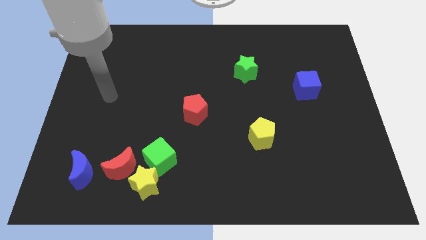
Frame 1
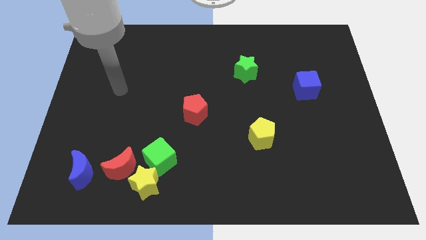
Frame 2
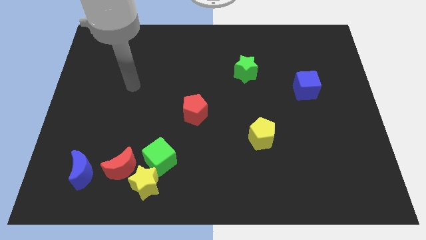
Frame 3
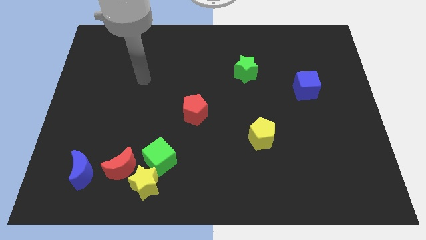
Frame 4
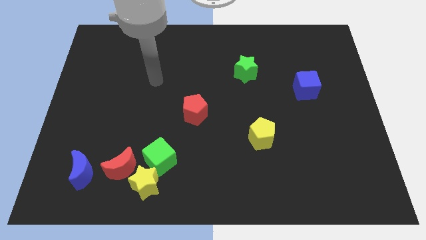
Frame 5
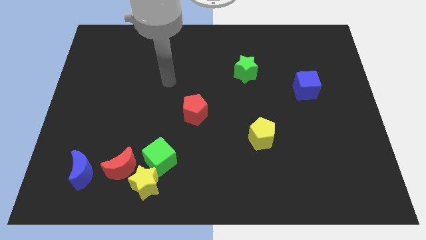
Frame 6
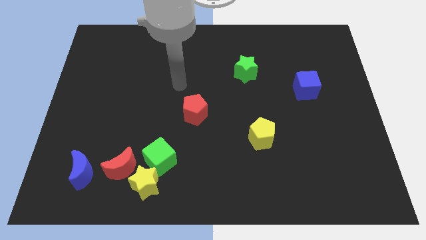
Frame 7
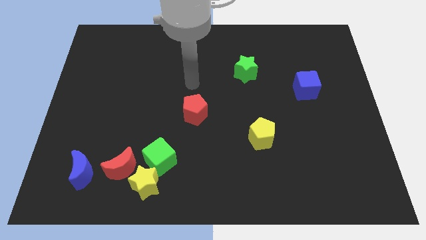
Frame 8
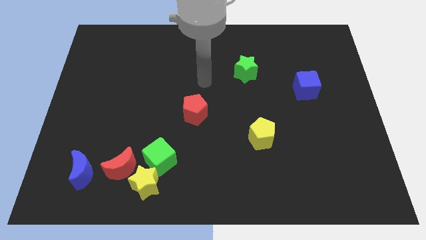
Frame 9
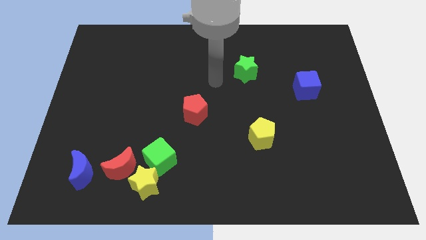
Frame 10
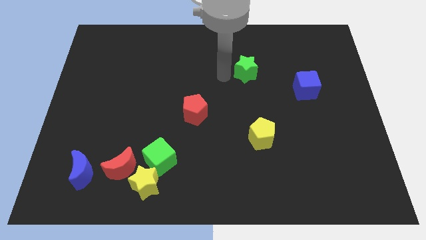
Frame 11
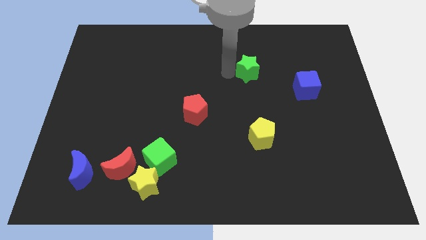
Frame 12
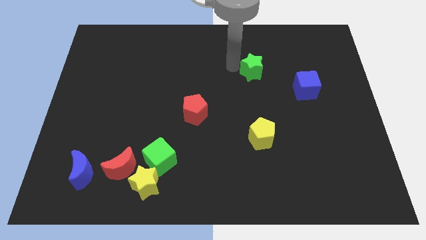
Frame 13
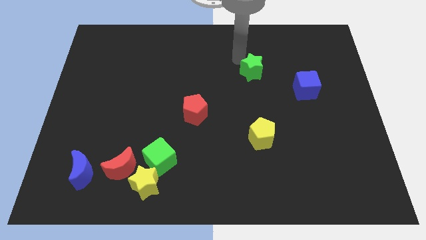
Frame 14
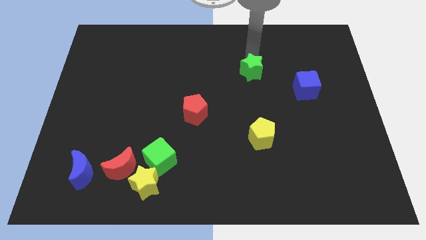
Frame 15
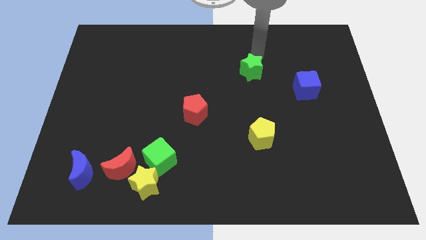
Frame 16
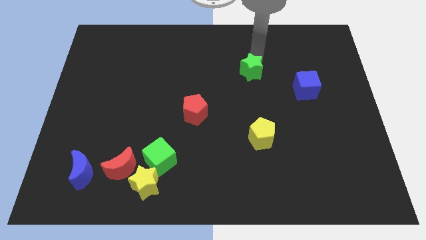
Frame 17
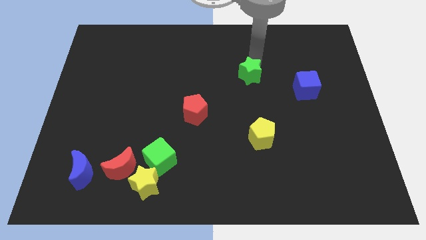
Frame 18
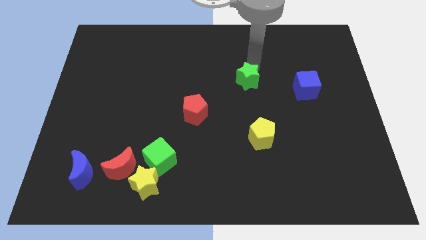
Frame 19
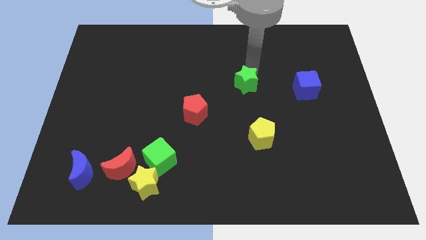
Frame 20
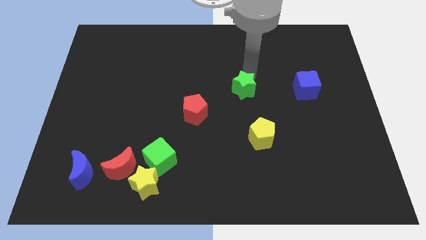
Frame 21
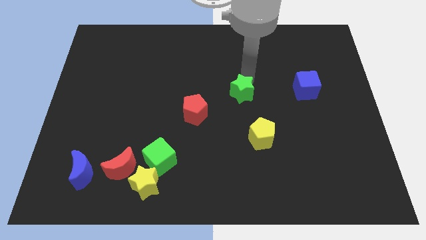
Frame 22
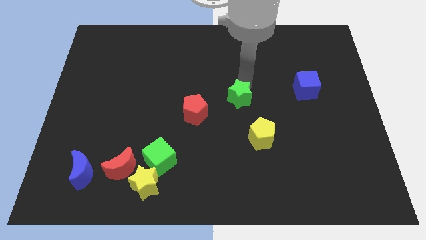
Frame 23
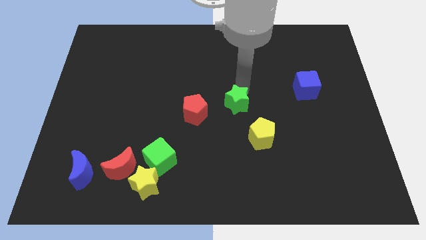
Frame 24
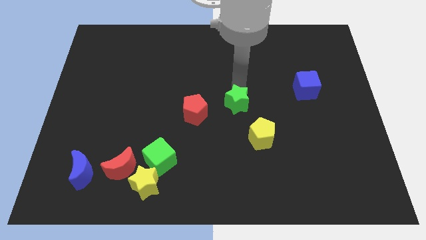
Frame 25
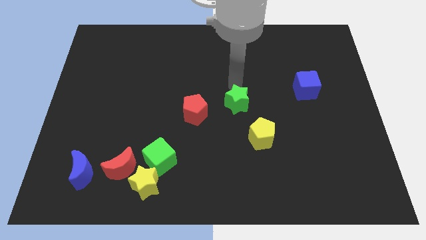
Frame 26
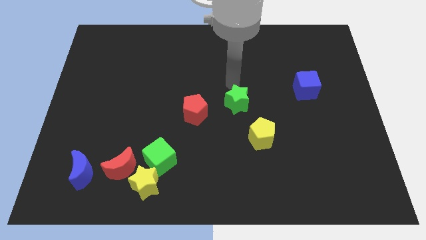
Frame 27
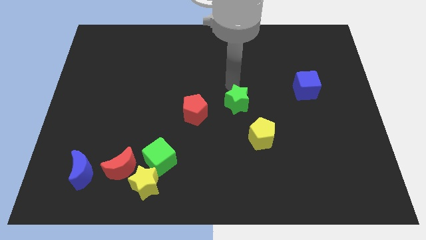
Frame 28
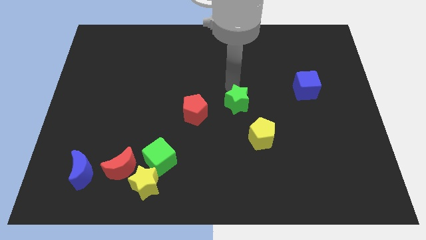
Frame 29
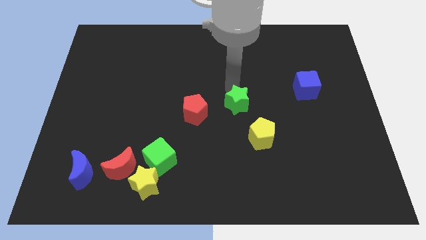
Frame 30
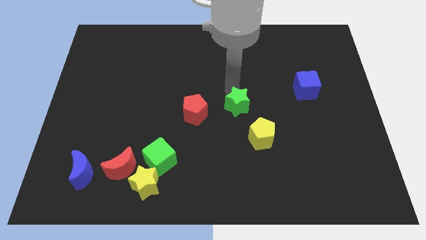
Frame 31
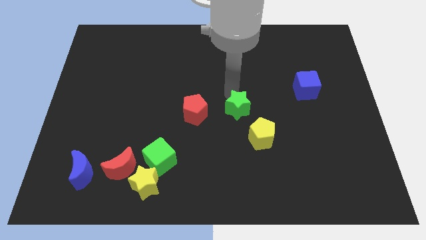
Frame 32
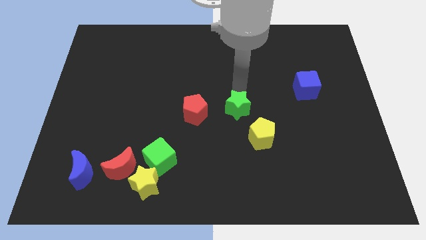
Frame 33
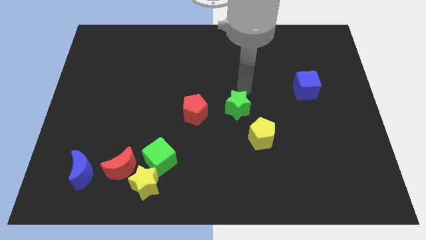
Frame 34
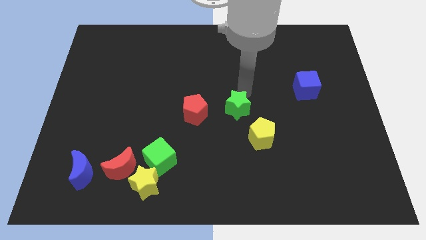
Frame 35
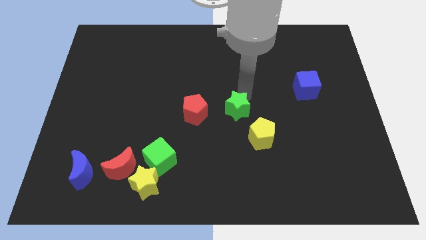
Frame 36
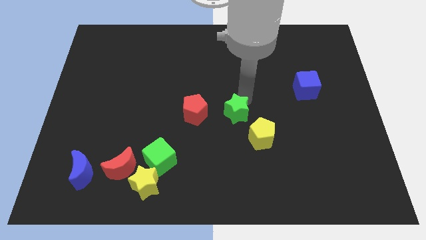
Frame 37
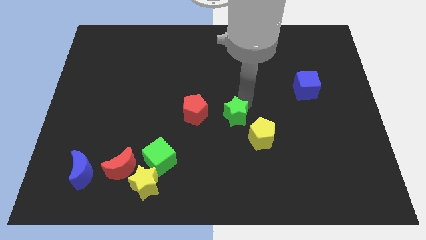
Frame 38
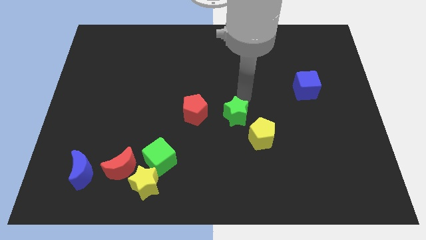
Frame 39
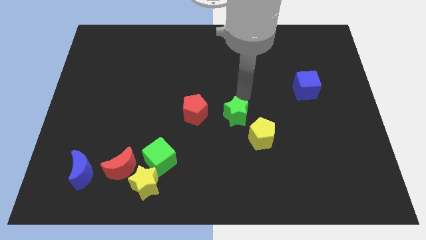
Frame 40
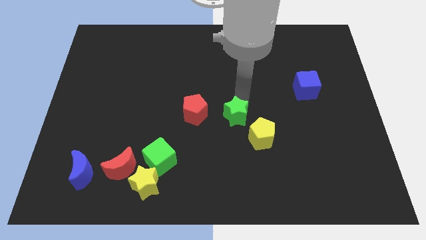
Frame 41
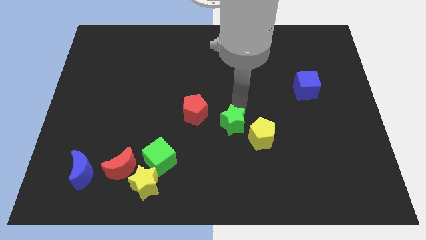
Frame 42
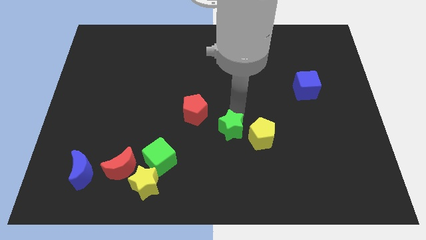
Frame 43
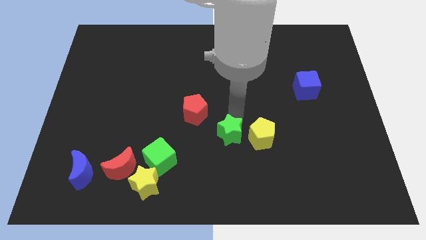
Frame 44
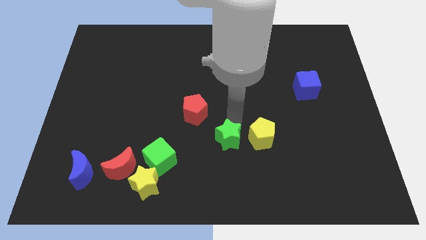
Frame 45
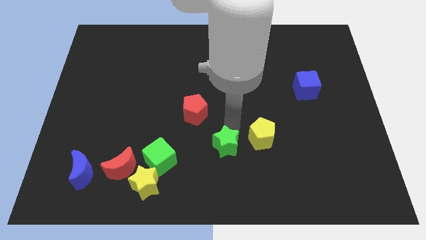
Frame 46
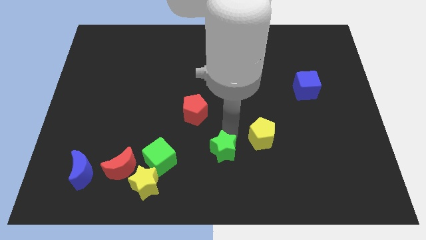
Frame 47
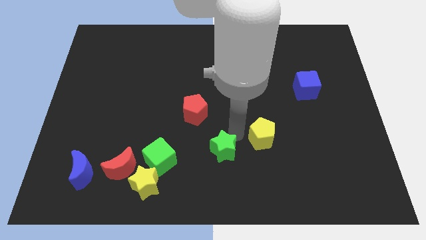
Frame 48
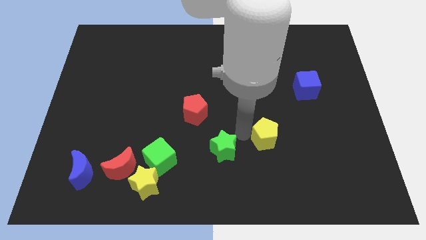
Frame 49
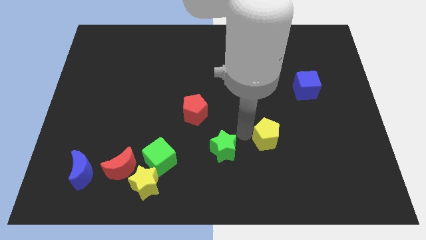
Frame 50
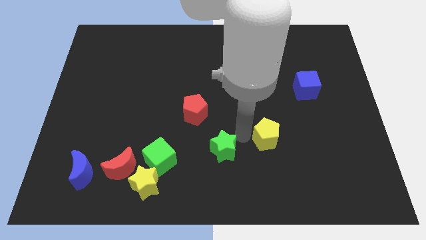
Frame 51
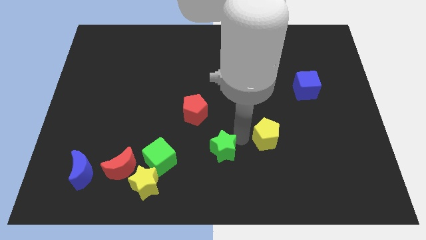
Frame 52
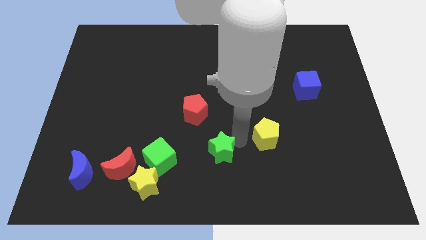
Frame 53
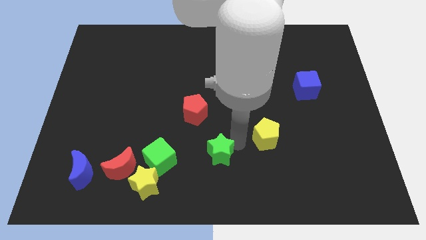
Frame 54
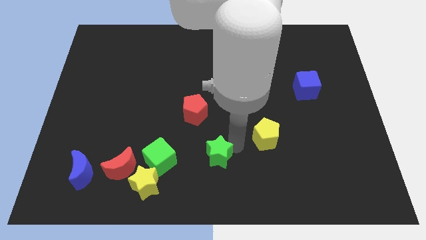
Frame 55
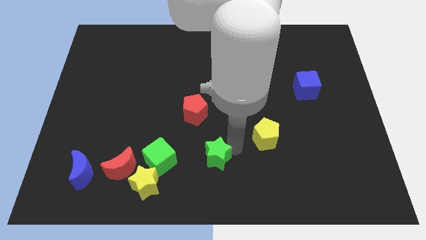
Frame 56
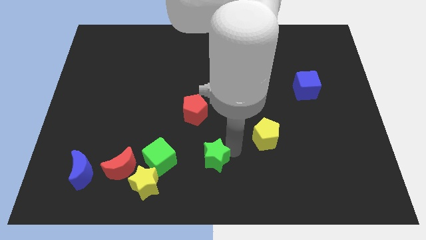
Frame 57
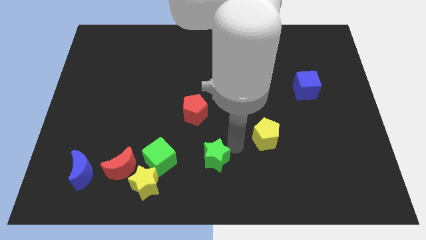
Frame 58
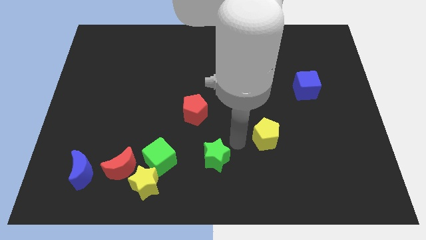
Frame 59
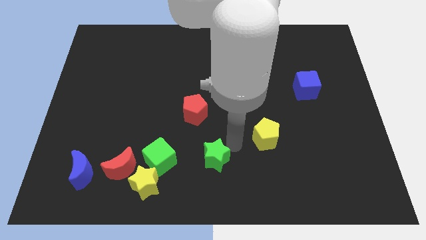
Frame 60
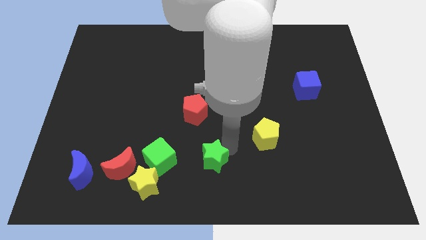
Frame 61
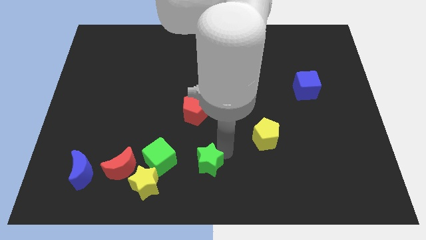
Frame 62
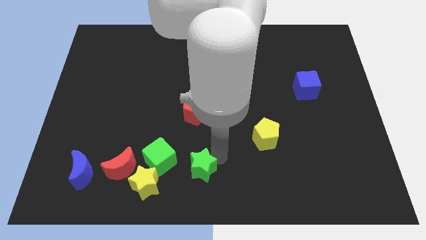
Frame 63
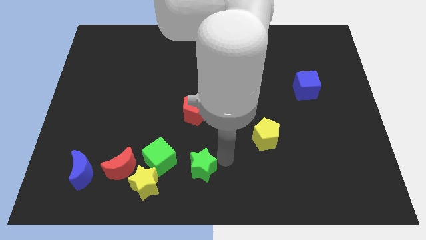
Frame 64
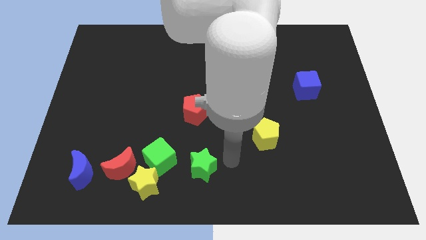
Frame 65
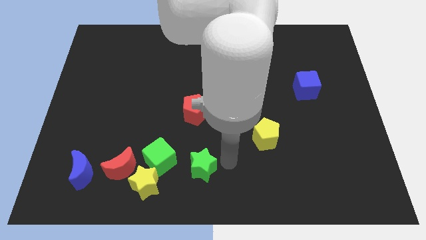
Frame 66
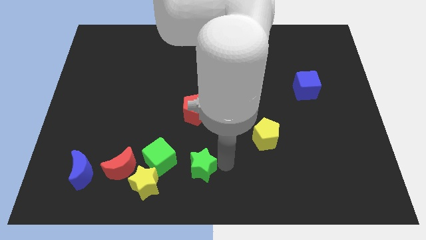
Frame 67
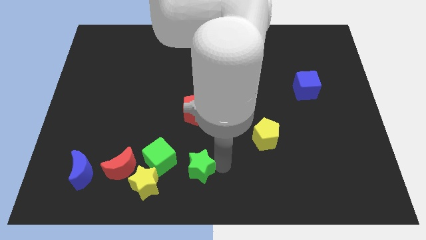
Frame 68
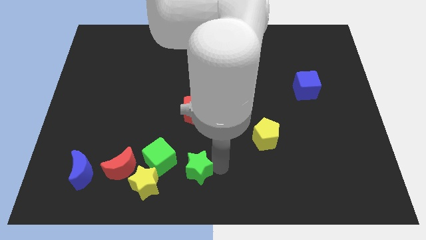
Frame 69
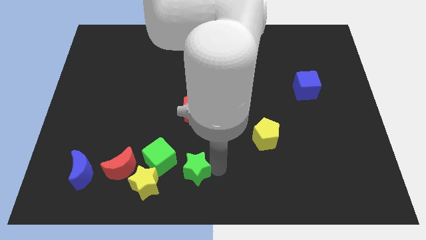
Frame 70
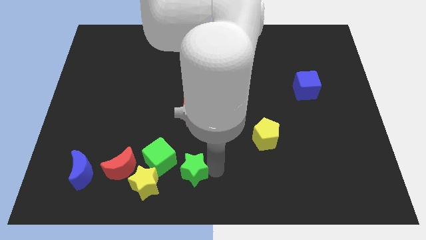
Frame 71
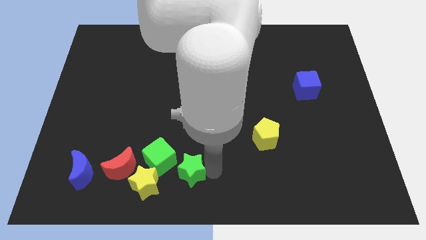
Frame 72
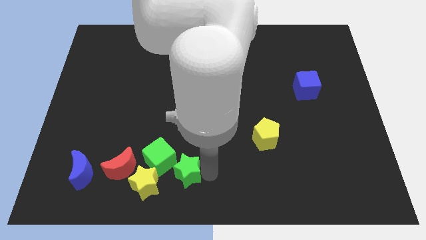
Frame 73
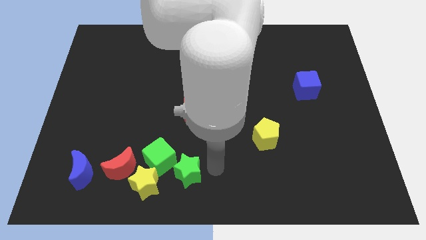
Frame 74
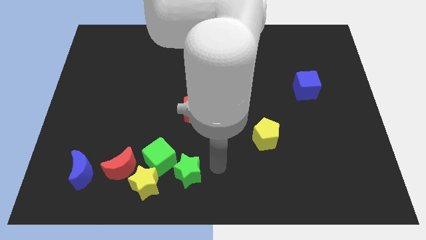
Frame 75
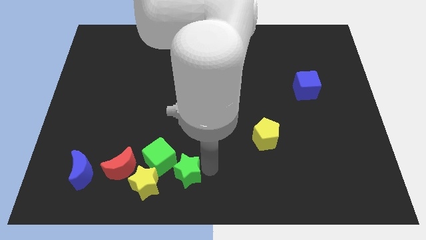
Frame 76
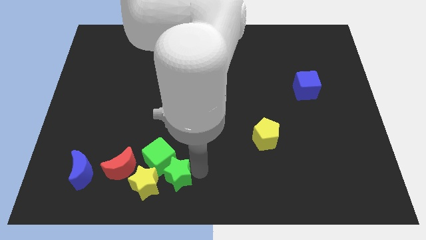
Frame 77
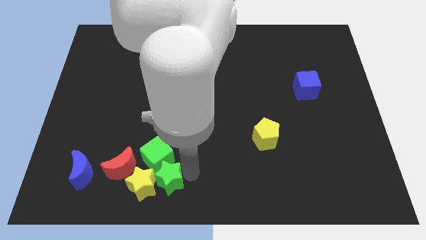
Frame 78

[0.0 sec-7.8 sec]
slide the green star close to the yellow star
